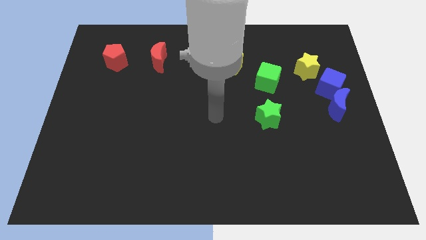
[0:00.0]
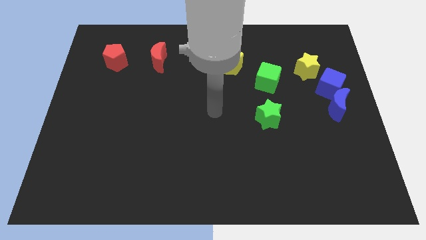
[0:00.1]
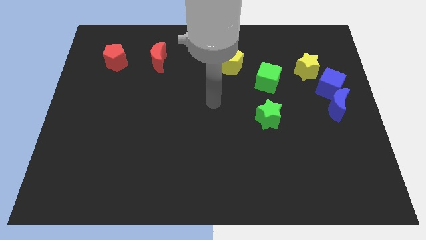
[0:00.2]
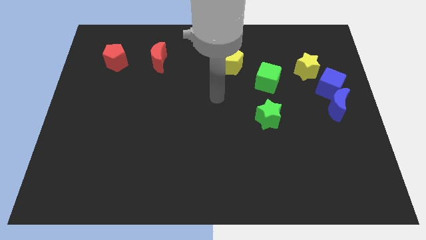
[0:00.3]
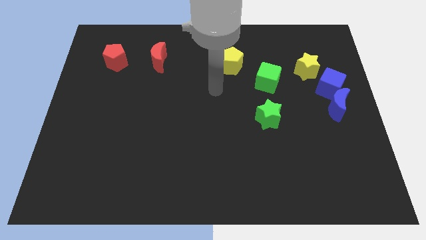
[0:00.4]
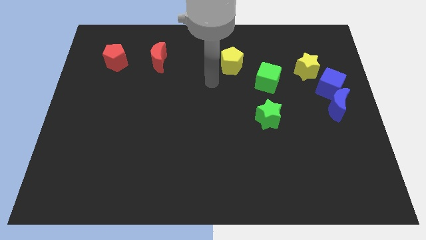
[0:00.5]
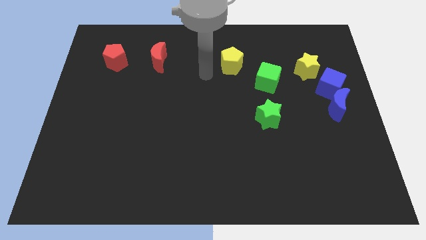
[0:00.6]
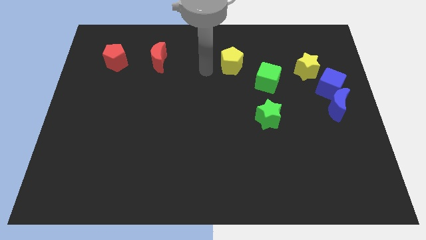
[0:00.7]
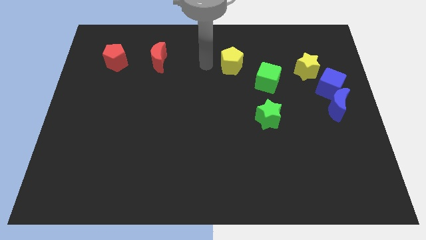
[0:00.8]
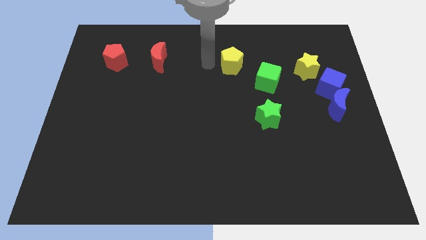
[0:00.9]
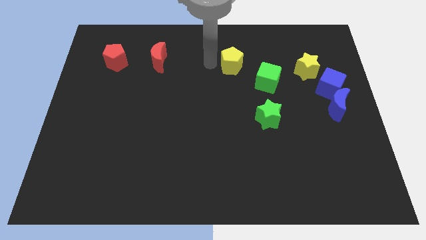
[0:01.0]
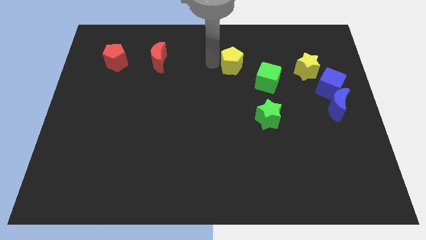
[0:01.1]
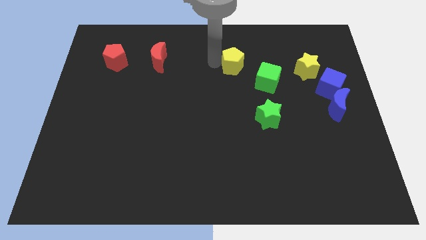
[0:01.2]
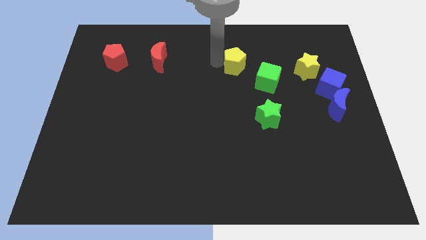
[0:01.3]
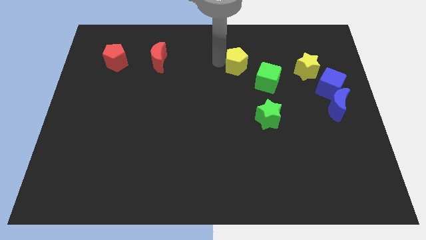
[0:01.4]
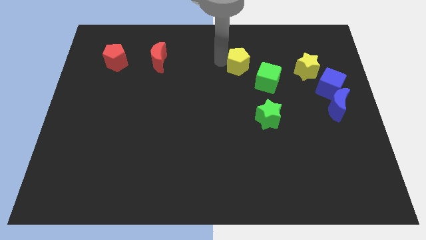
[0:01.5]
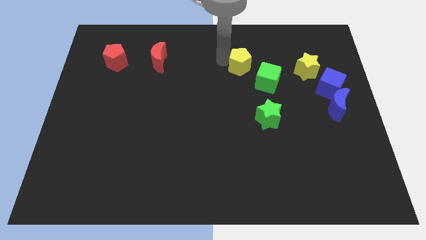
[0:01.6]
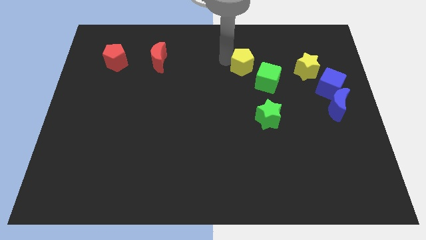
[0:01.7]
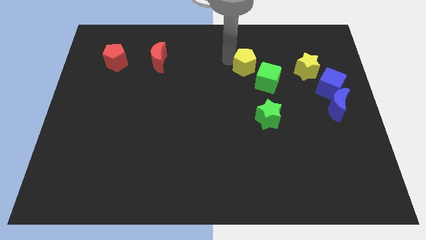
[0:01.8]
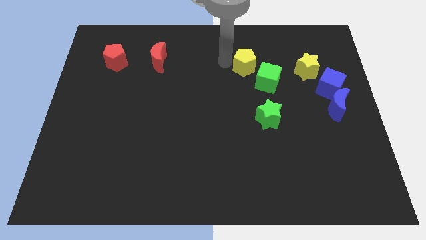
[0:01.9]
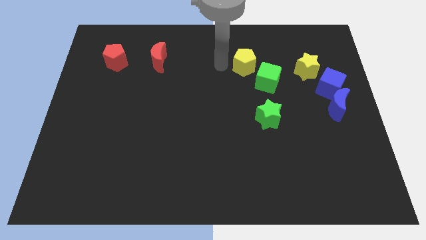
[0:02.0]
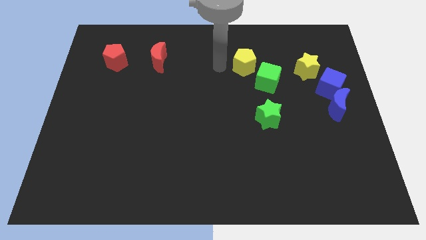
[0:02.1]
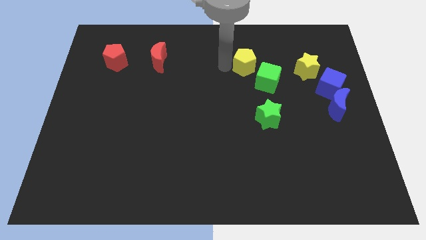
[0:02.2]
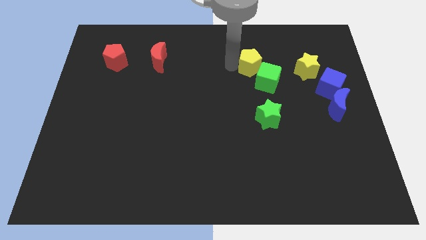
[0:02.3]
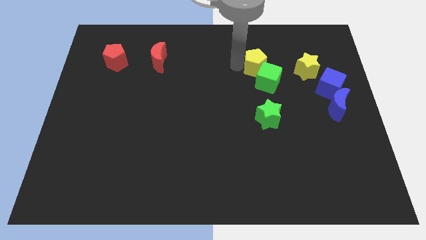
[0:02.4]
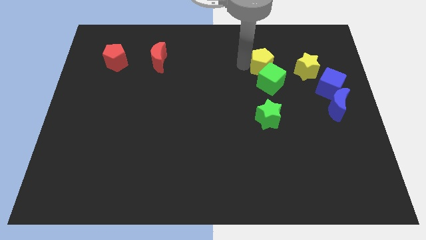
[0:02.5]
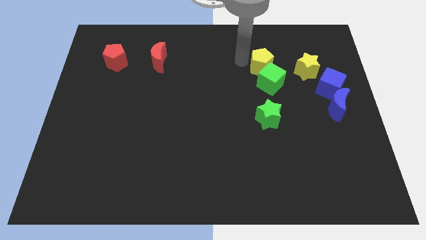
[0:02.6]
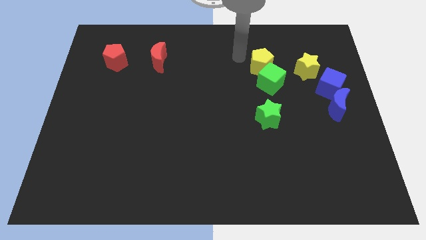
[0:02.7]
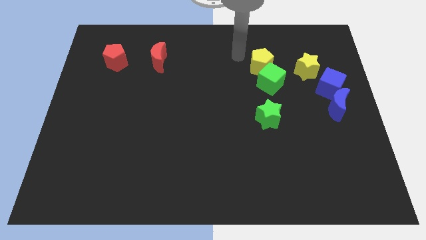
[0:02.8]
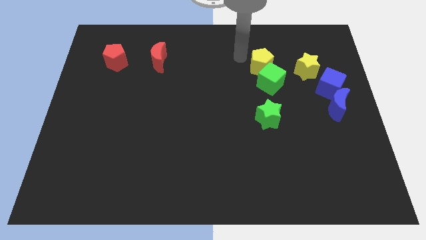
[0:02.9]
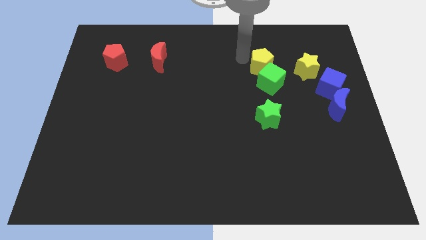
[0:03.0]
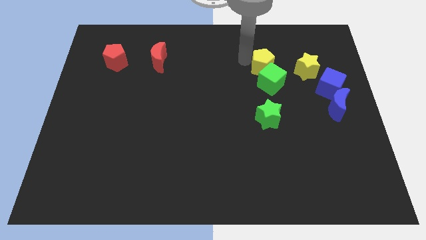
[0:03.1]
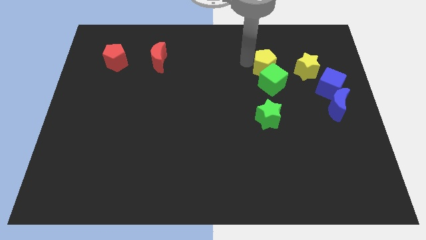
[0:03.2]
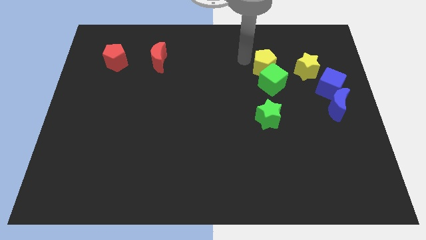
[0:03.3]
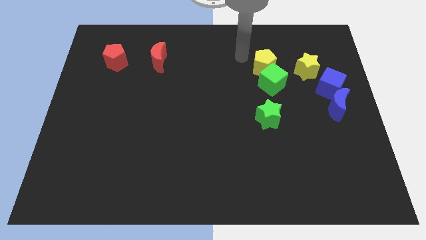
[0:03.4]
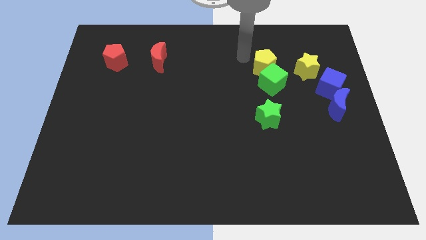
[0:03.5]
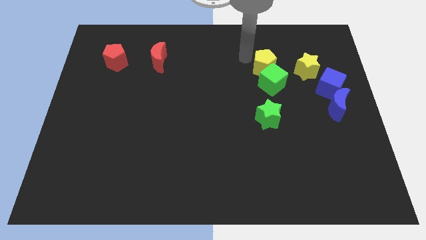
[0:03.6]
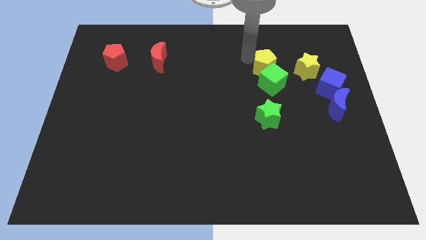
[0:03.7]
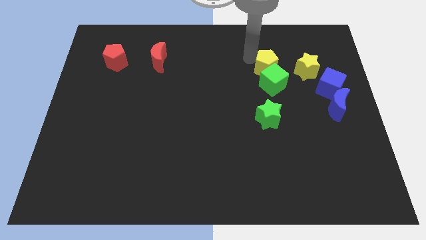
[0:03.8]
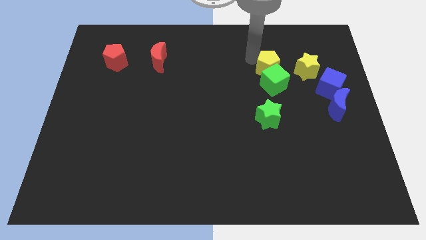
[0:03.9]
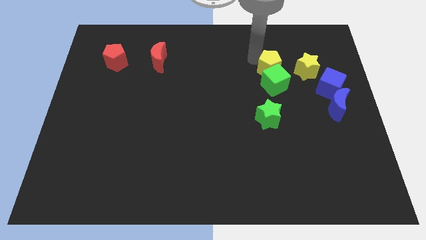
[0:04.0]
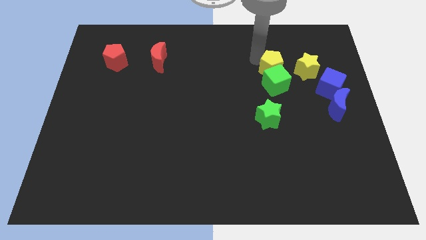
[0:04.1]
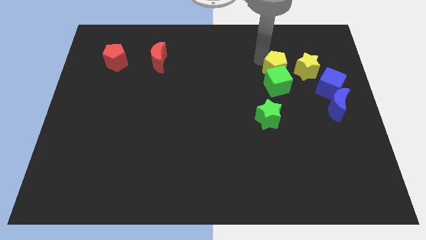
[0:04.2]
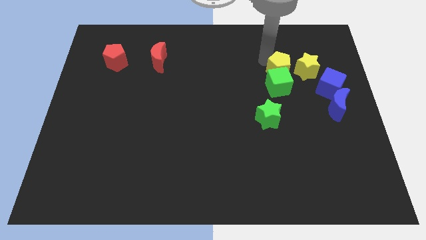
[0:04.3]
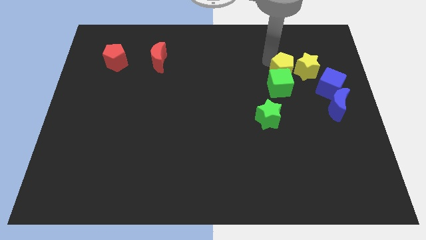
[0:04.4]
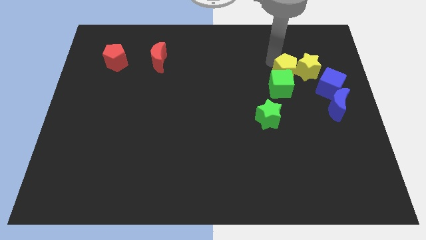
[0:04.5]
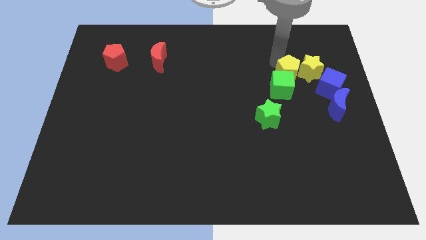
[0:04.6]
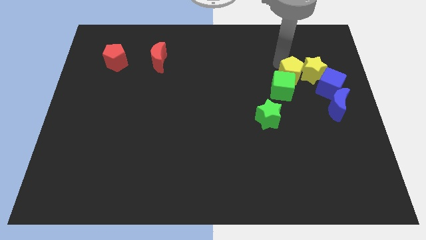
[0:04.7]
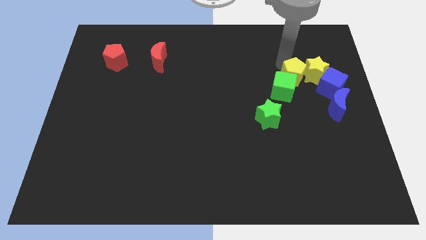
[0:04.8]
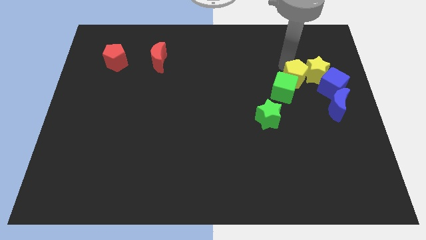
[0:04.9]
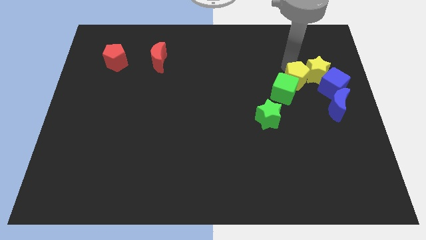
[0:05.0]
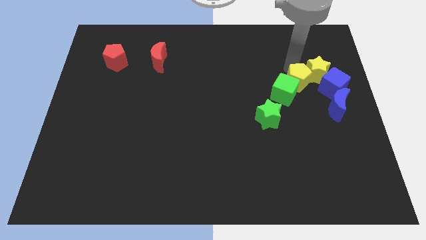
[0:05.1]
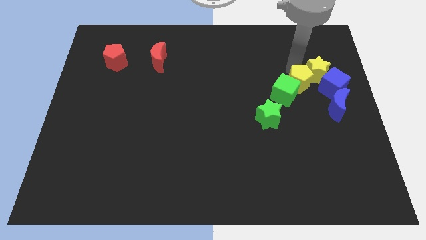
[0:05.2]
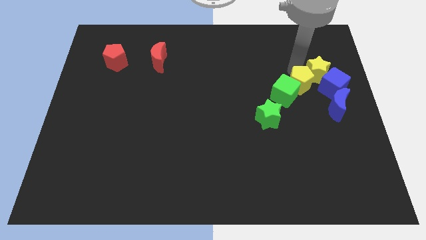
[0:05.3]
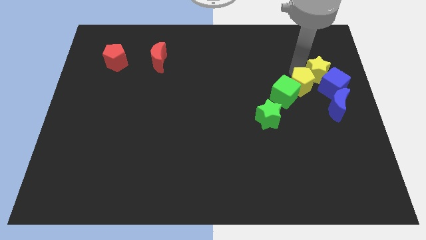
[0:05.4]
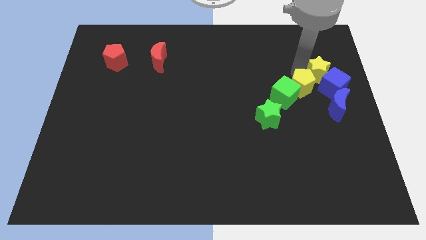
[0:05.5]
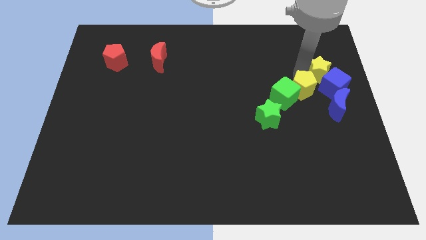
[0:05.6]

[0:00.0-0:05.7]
push the yellow pentagon to the bottom left of the blue cube

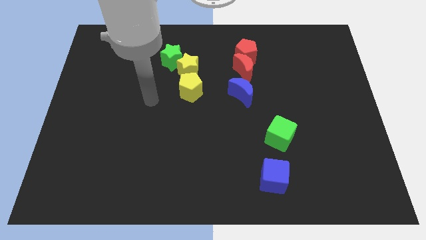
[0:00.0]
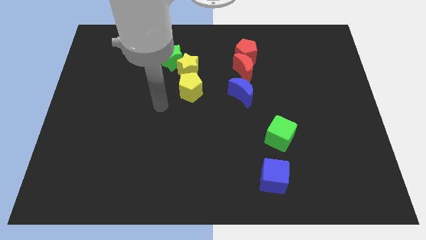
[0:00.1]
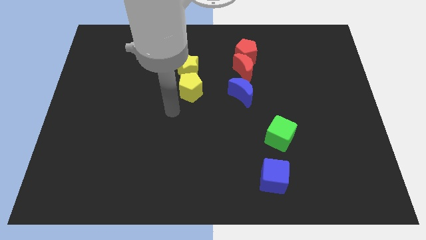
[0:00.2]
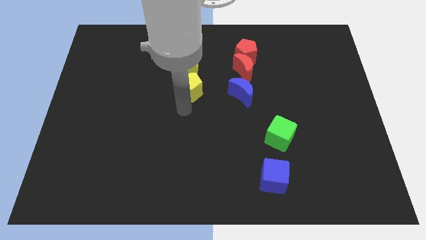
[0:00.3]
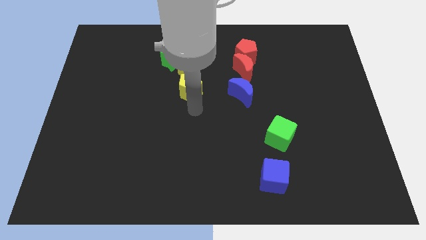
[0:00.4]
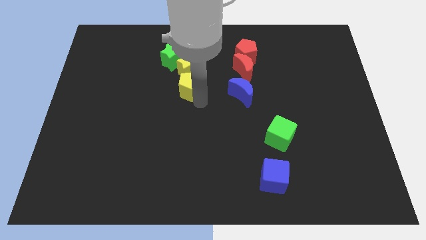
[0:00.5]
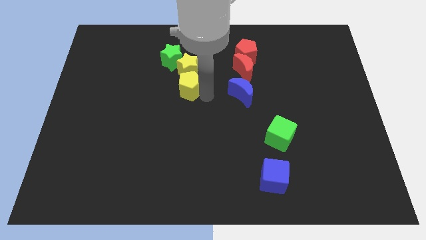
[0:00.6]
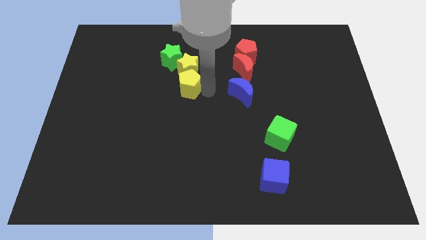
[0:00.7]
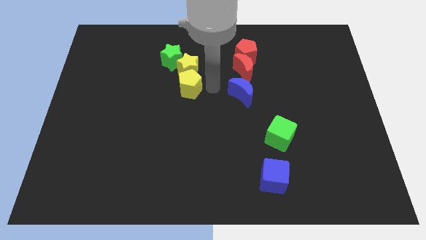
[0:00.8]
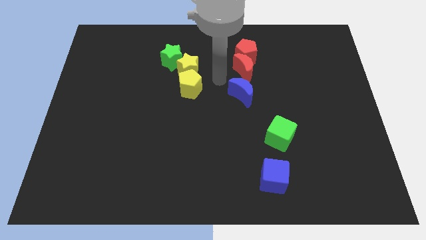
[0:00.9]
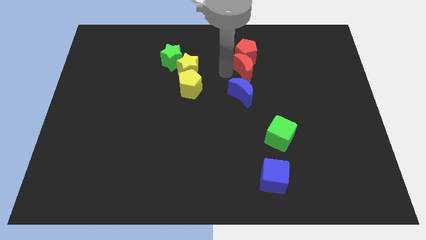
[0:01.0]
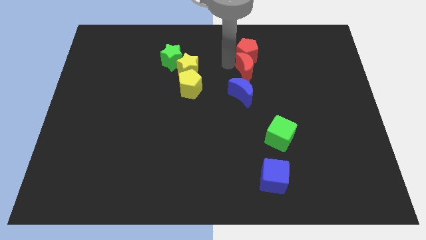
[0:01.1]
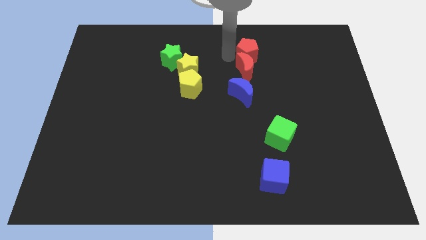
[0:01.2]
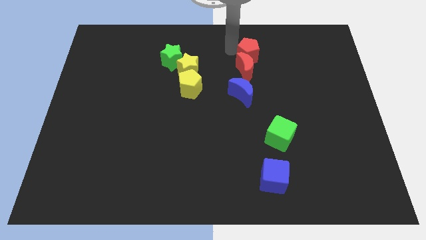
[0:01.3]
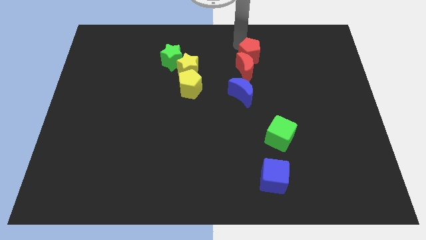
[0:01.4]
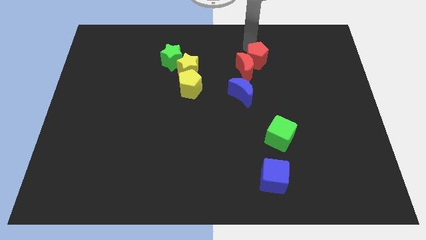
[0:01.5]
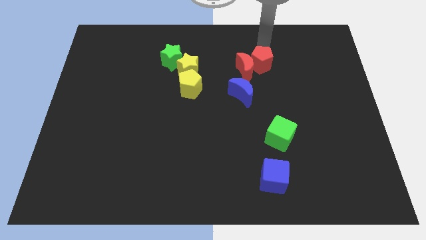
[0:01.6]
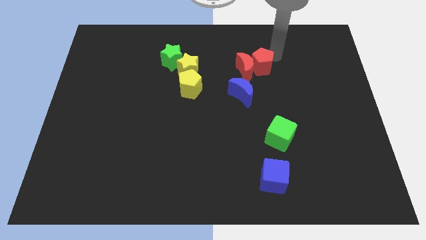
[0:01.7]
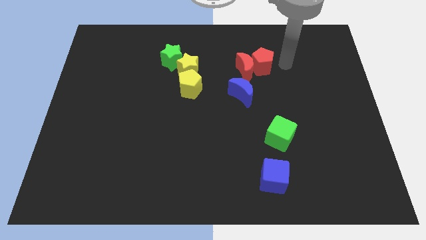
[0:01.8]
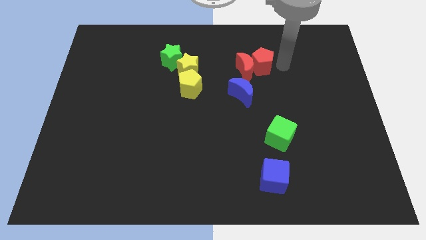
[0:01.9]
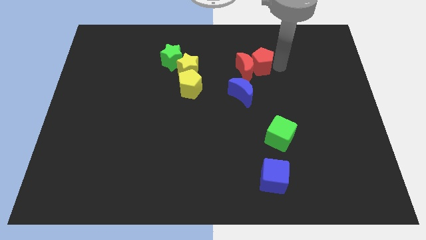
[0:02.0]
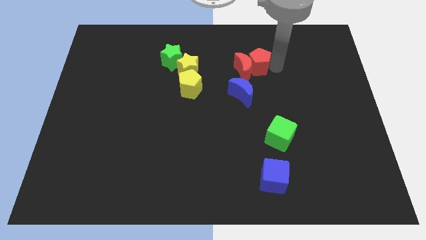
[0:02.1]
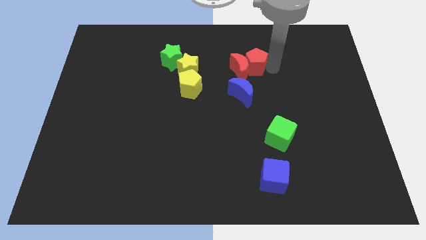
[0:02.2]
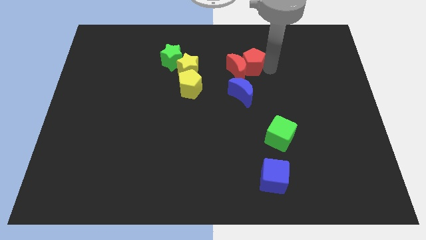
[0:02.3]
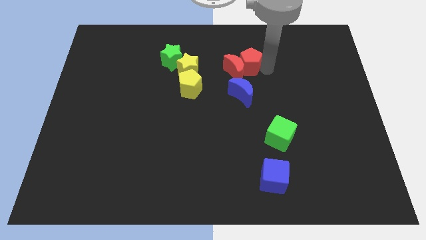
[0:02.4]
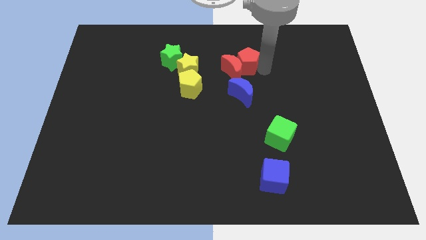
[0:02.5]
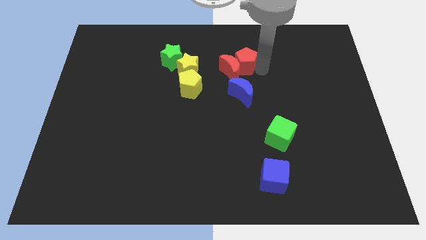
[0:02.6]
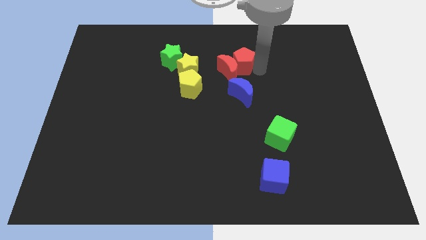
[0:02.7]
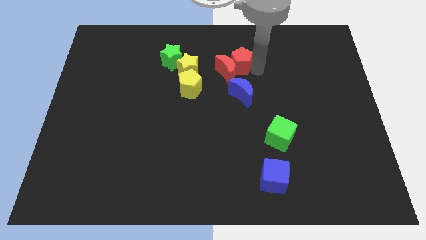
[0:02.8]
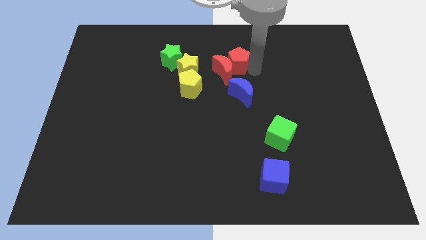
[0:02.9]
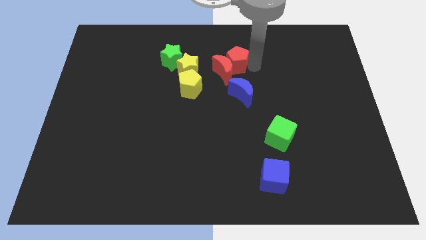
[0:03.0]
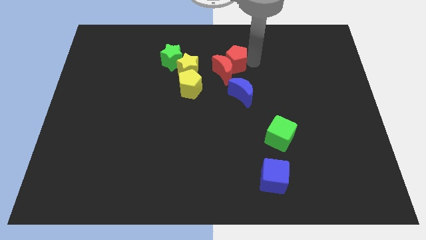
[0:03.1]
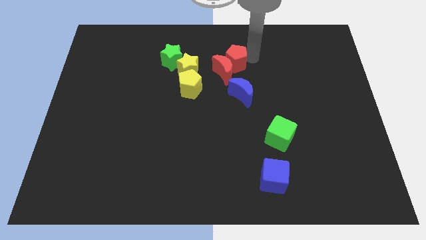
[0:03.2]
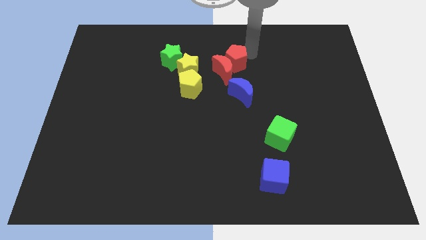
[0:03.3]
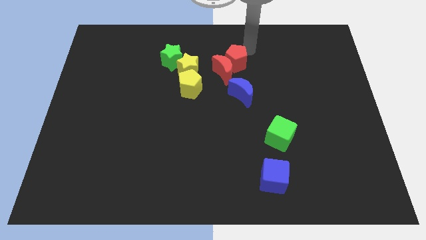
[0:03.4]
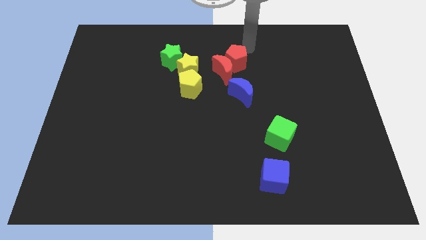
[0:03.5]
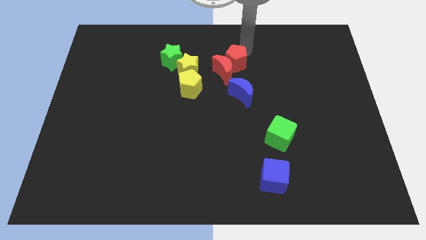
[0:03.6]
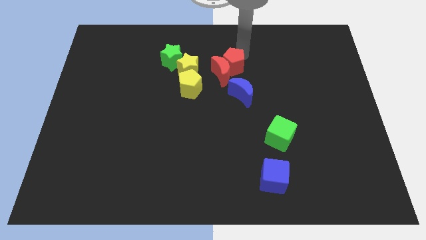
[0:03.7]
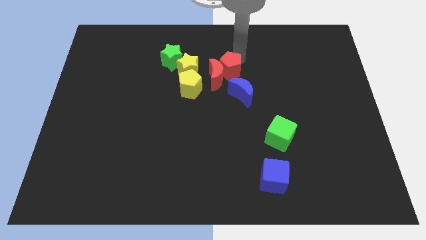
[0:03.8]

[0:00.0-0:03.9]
put the red pentagon to the top left side of the blue moon
